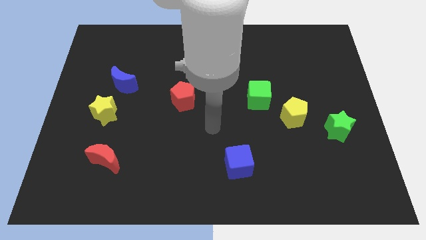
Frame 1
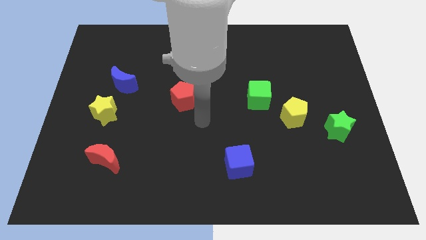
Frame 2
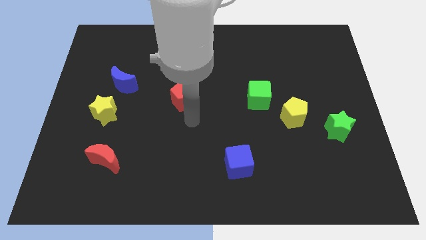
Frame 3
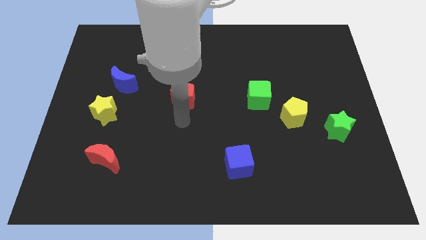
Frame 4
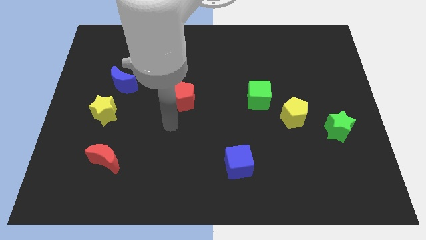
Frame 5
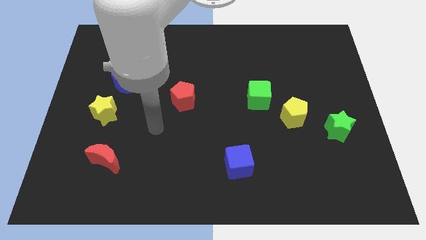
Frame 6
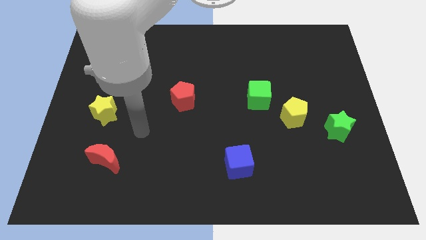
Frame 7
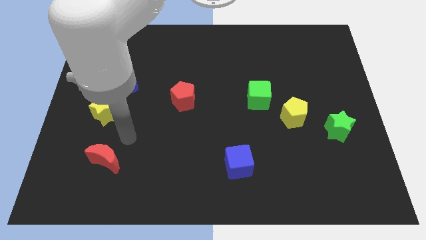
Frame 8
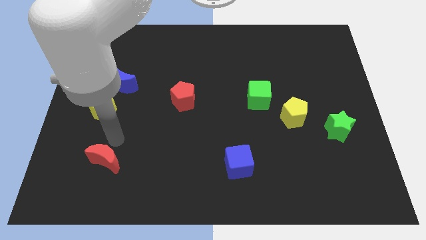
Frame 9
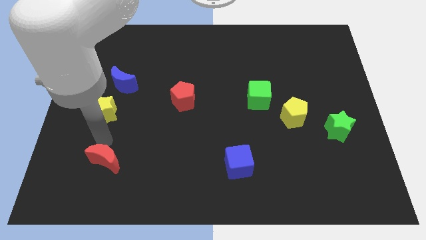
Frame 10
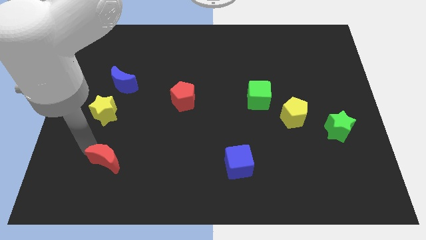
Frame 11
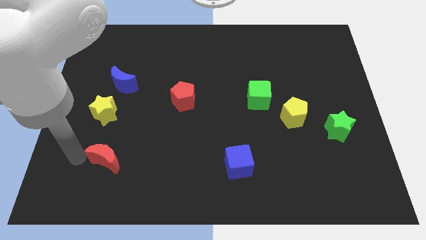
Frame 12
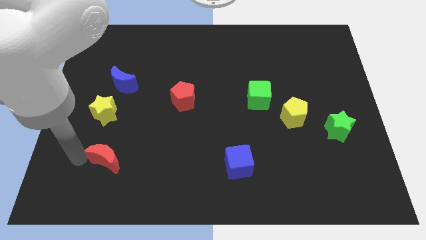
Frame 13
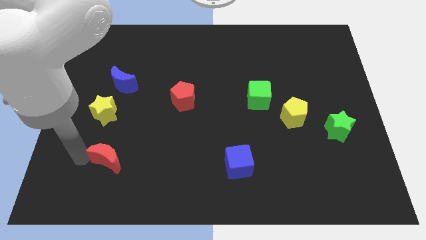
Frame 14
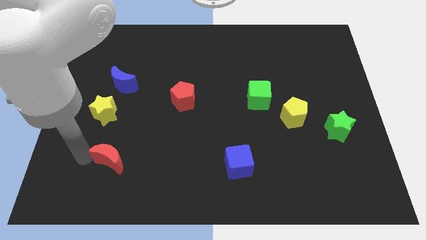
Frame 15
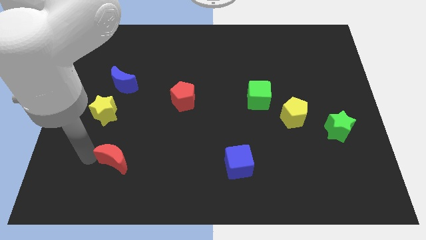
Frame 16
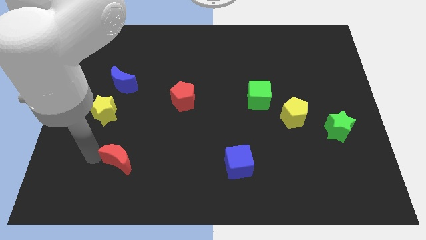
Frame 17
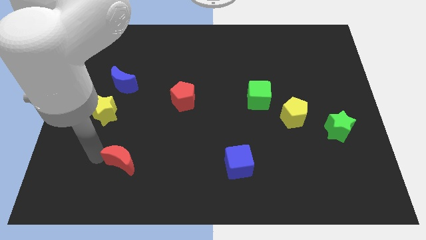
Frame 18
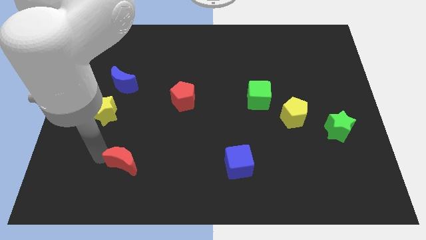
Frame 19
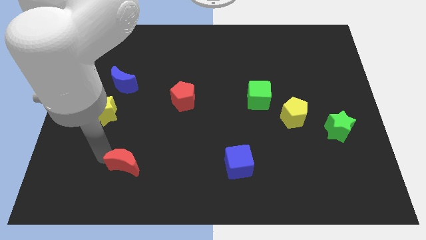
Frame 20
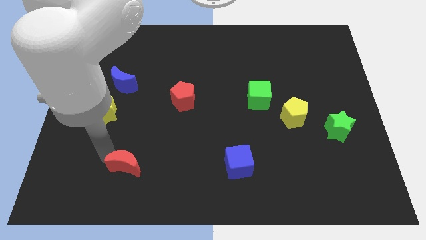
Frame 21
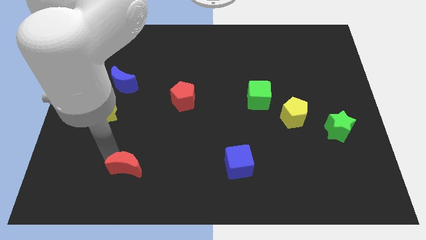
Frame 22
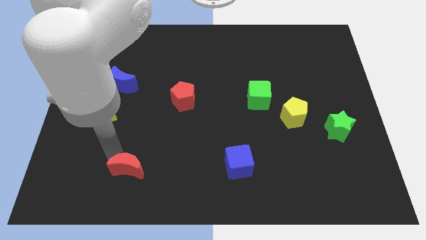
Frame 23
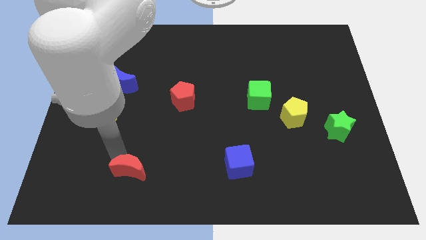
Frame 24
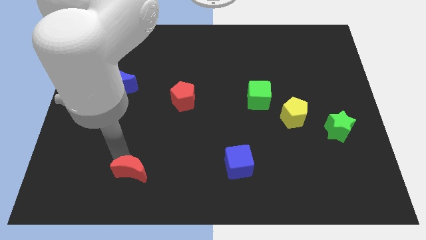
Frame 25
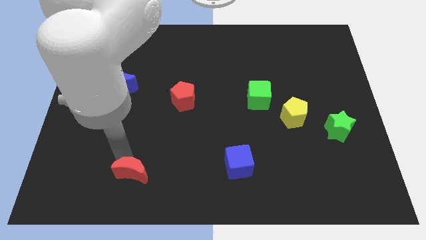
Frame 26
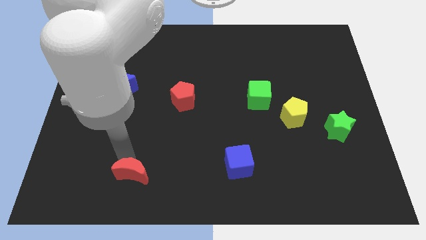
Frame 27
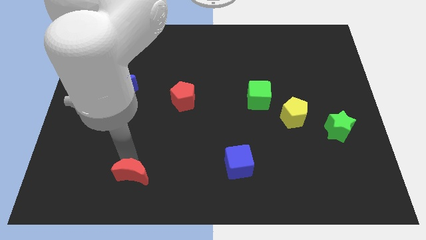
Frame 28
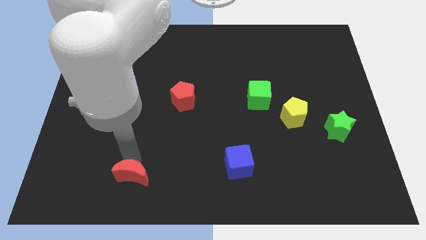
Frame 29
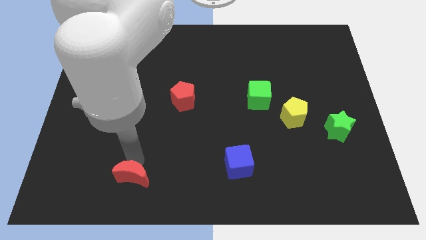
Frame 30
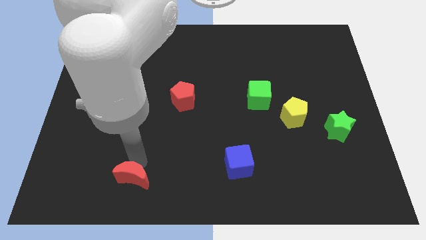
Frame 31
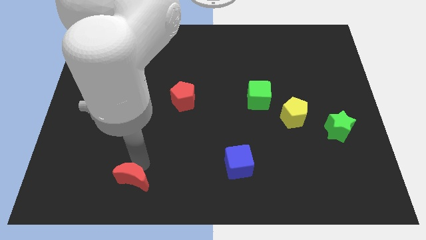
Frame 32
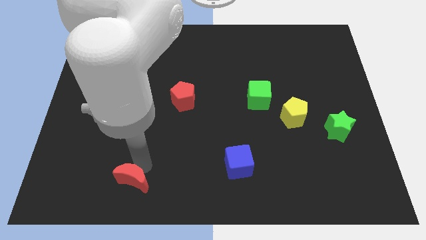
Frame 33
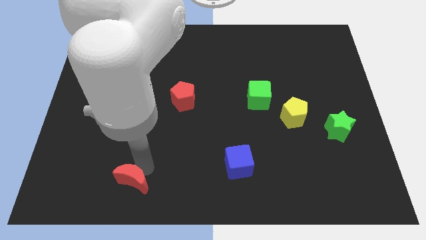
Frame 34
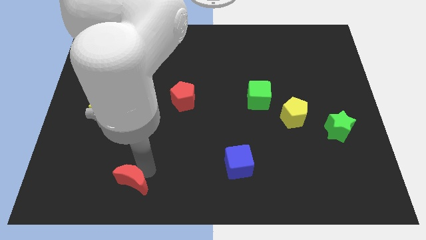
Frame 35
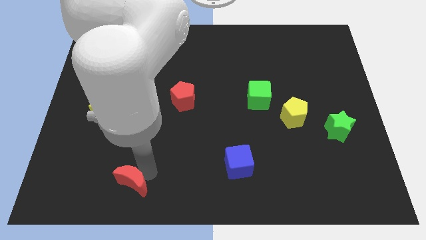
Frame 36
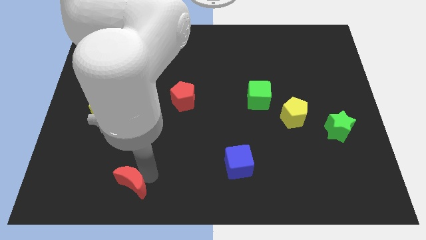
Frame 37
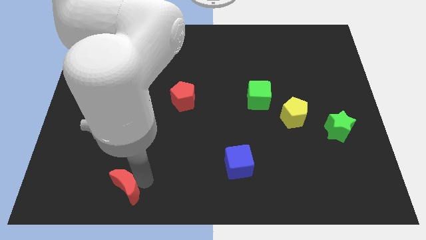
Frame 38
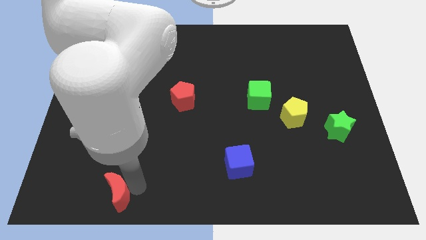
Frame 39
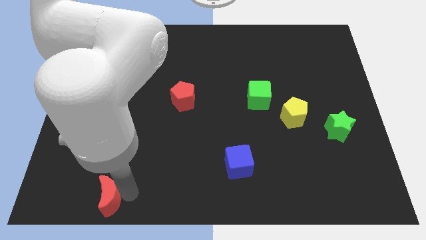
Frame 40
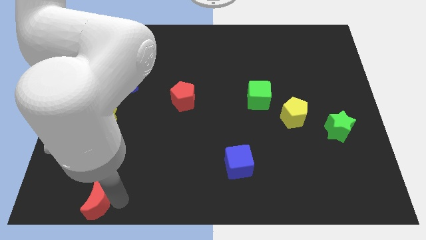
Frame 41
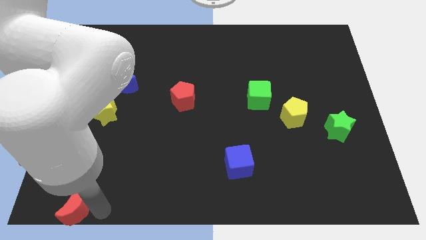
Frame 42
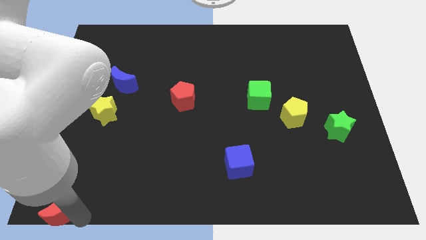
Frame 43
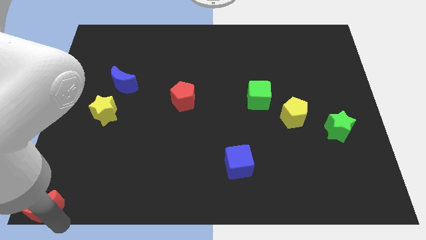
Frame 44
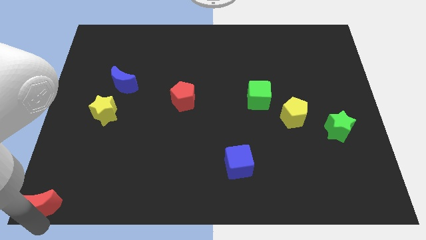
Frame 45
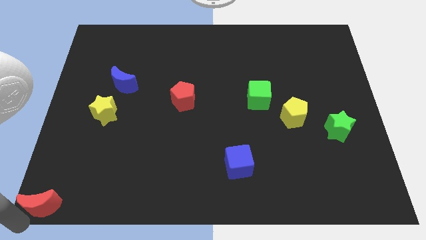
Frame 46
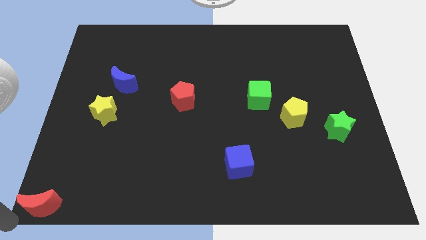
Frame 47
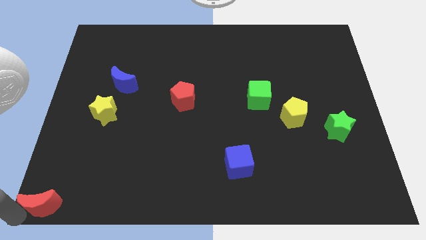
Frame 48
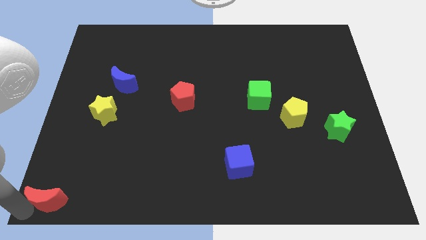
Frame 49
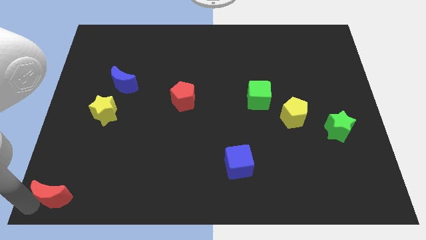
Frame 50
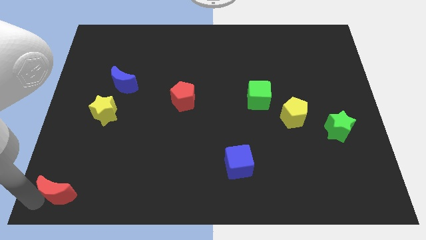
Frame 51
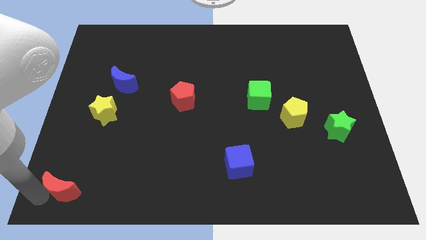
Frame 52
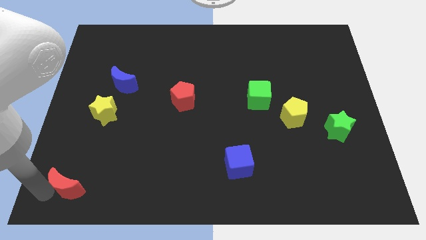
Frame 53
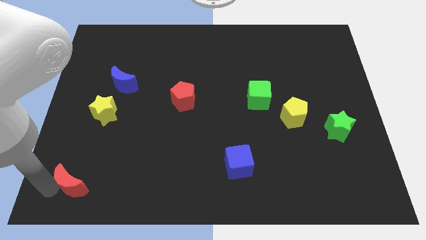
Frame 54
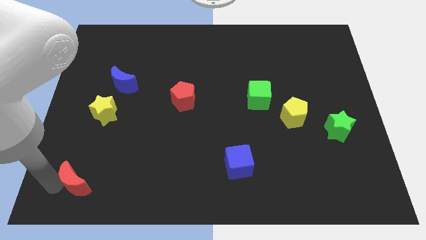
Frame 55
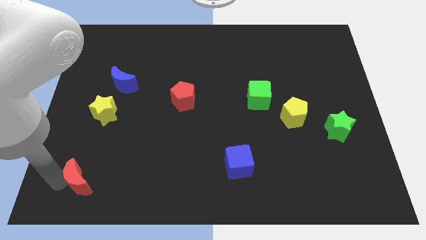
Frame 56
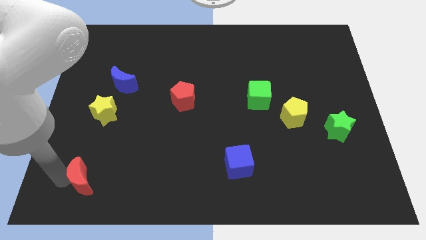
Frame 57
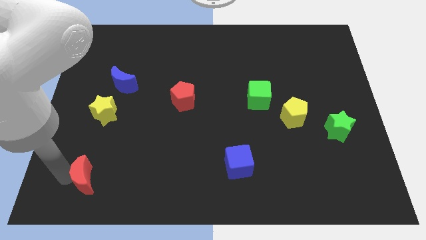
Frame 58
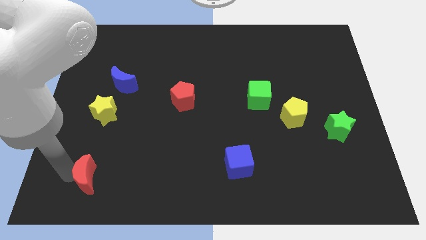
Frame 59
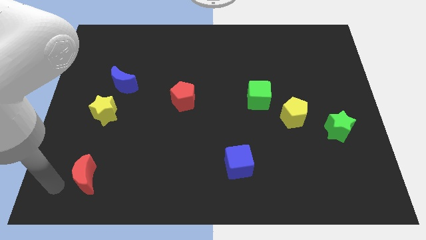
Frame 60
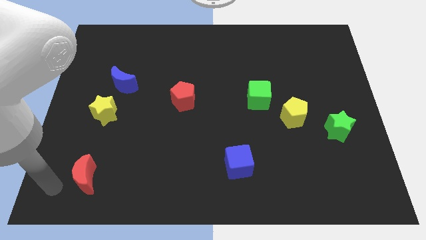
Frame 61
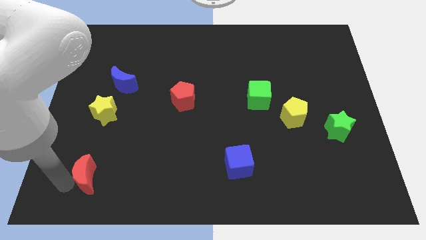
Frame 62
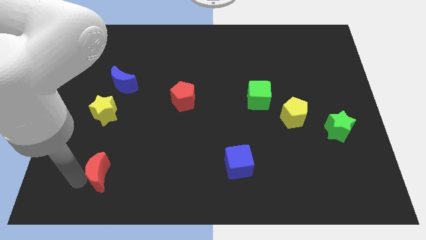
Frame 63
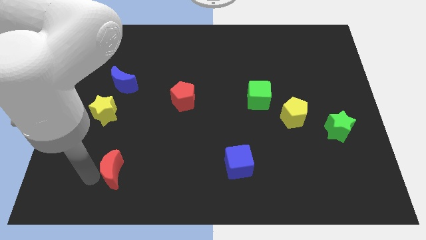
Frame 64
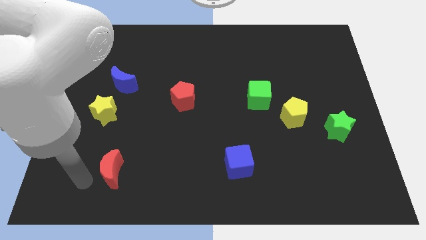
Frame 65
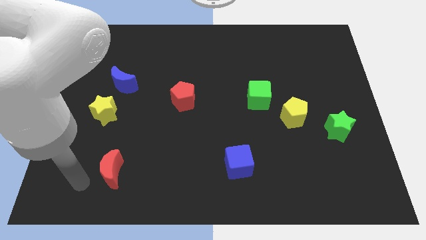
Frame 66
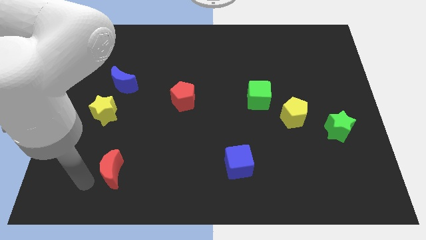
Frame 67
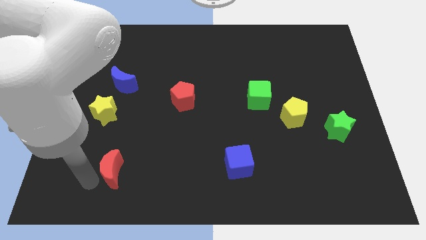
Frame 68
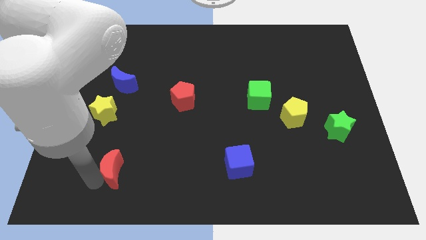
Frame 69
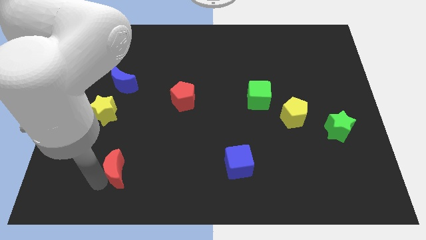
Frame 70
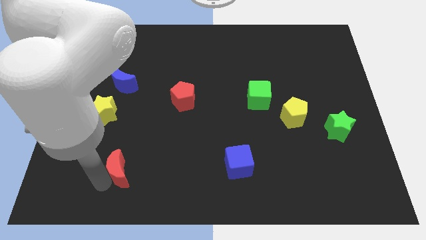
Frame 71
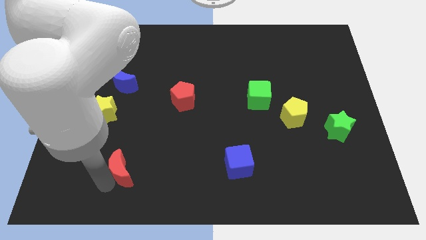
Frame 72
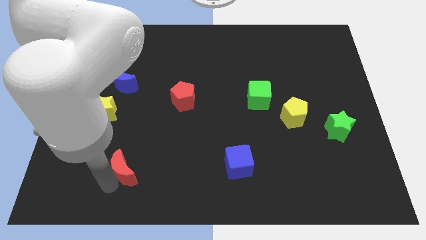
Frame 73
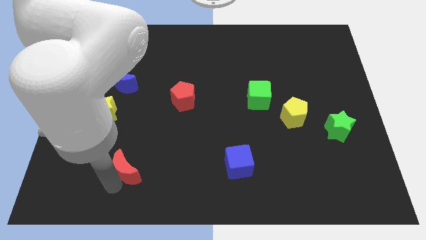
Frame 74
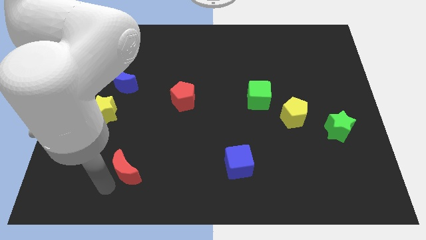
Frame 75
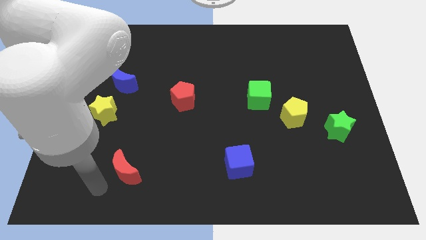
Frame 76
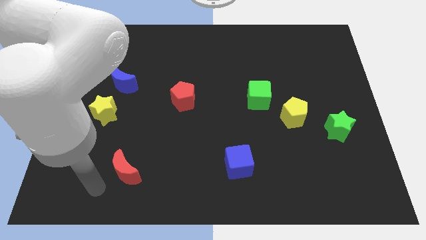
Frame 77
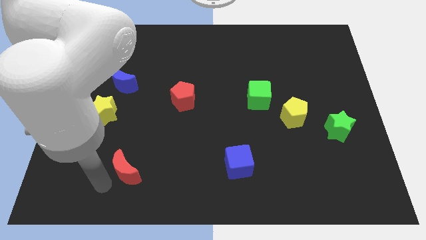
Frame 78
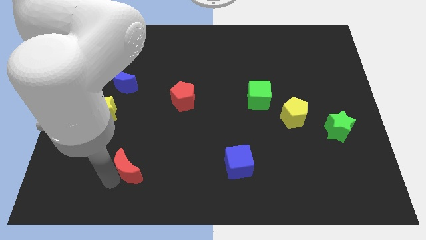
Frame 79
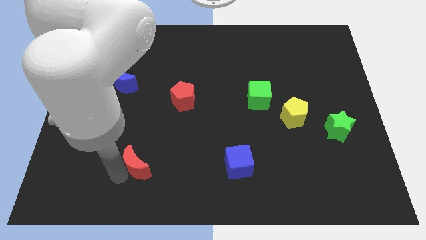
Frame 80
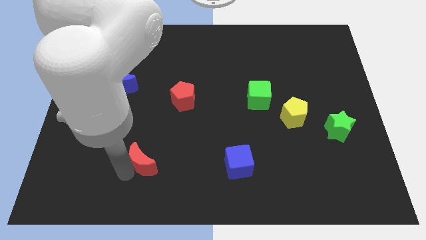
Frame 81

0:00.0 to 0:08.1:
slightly push the red moon to the right
